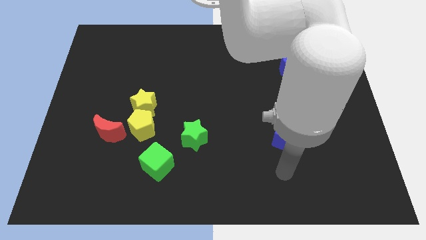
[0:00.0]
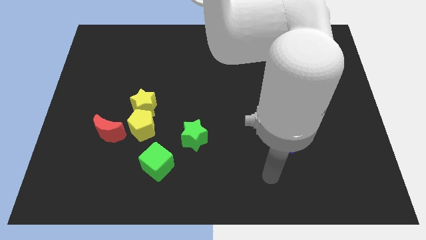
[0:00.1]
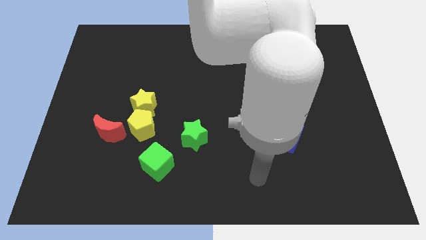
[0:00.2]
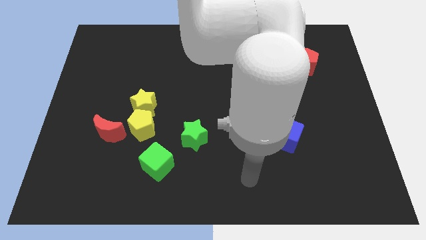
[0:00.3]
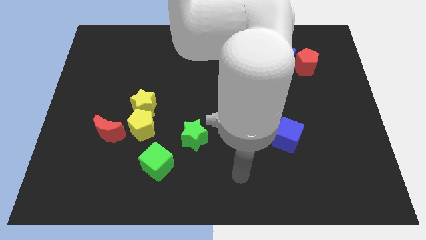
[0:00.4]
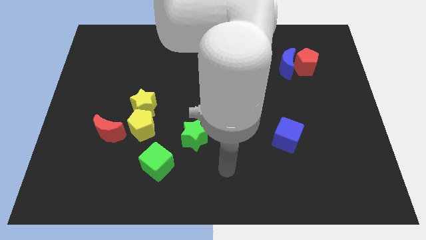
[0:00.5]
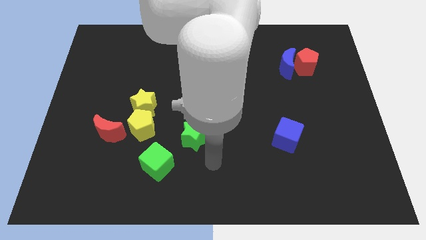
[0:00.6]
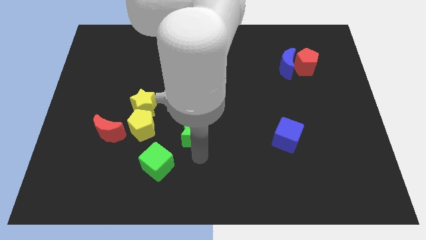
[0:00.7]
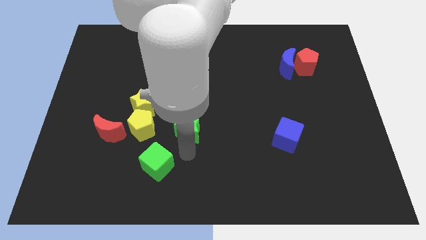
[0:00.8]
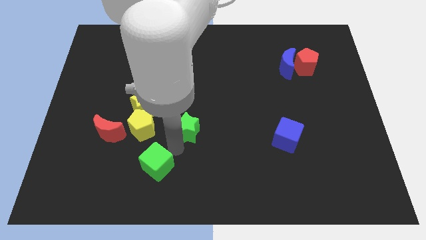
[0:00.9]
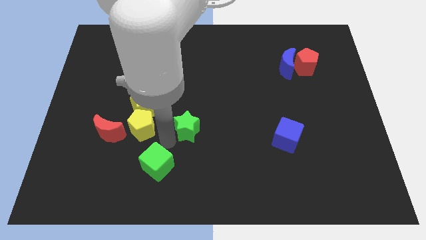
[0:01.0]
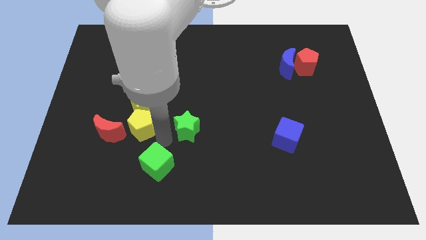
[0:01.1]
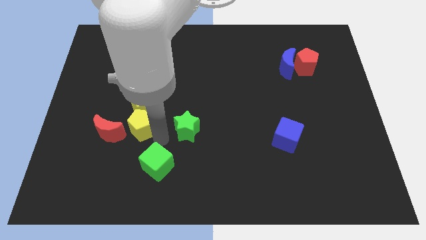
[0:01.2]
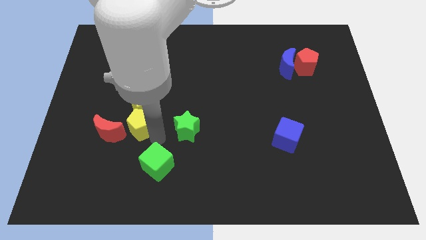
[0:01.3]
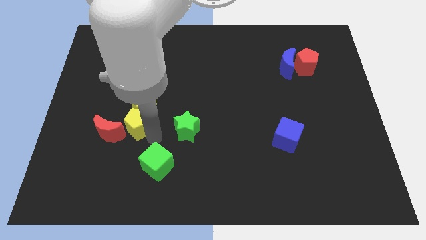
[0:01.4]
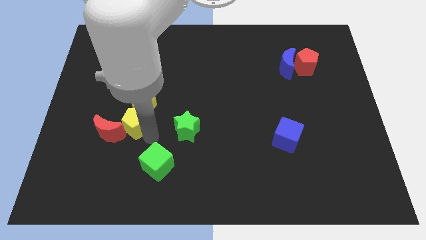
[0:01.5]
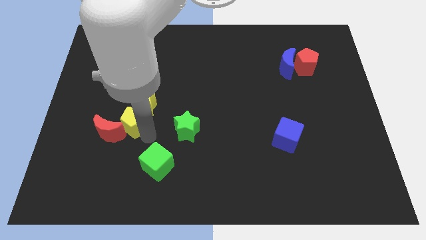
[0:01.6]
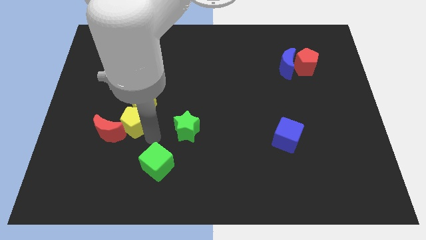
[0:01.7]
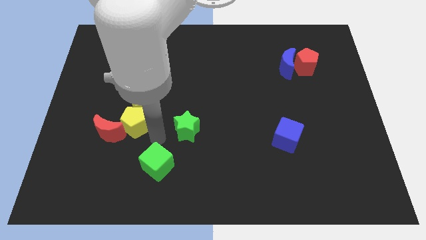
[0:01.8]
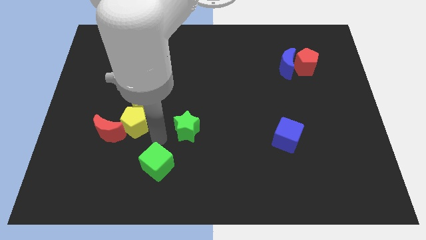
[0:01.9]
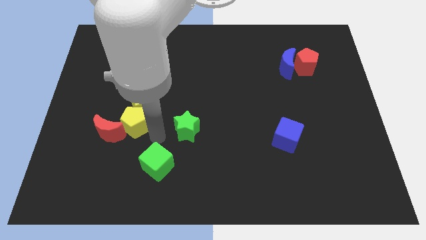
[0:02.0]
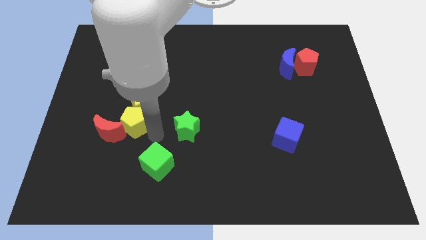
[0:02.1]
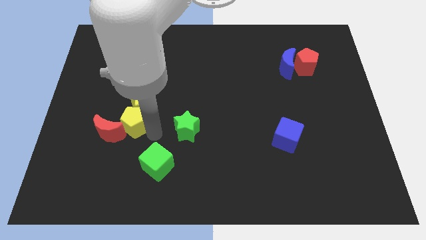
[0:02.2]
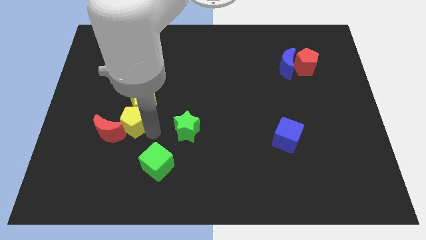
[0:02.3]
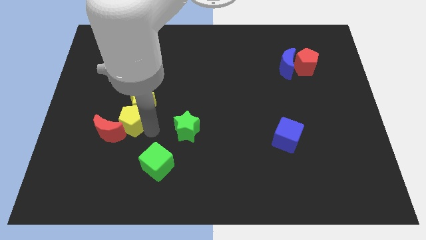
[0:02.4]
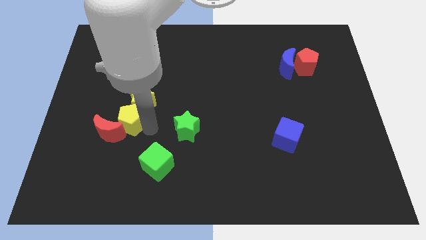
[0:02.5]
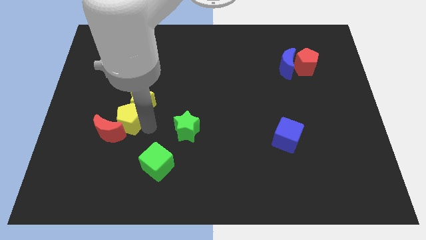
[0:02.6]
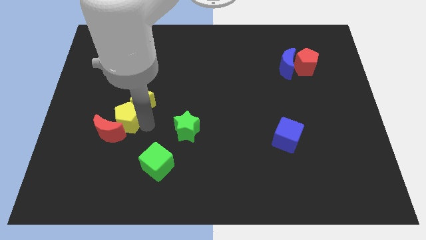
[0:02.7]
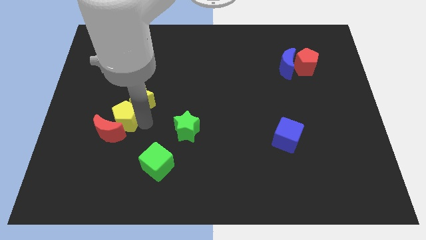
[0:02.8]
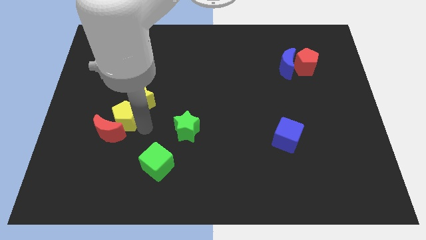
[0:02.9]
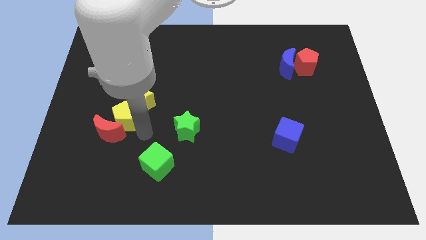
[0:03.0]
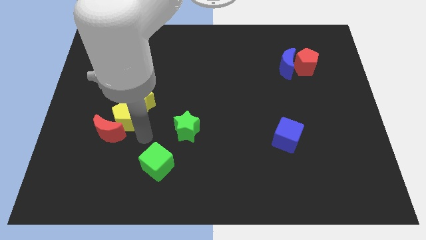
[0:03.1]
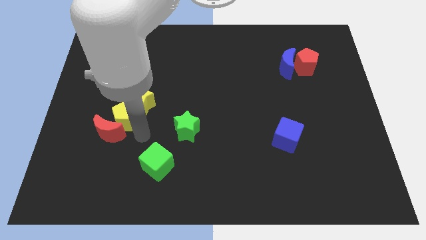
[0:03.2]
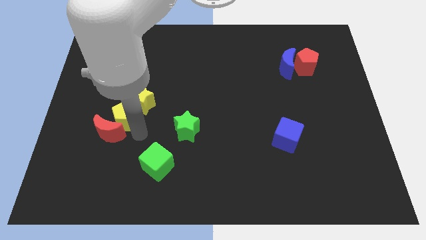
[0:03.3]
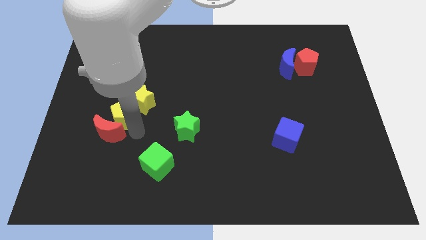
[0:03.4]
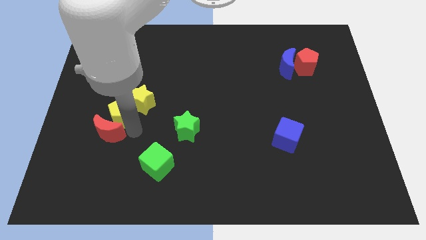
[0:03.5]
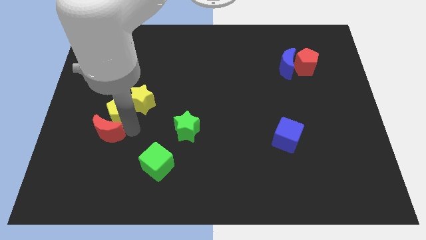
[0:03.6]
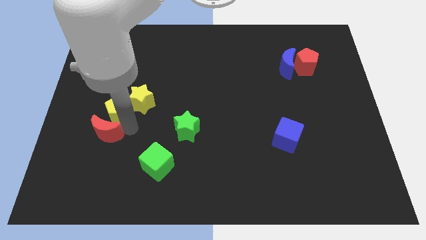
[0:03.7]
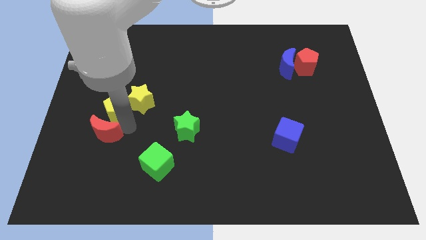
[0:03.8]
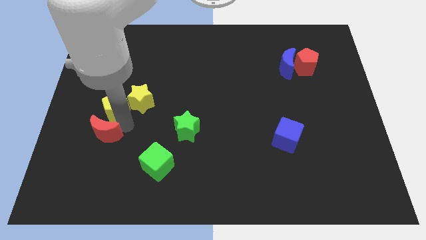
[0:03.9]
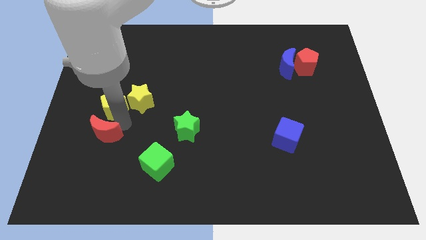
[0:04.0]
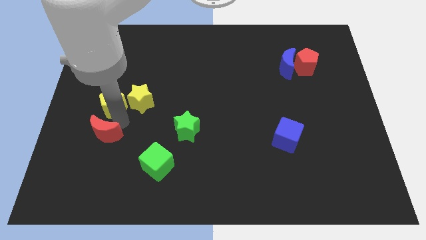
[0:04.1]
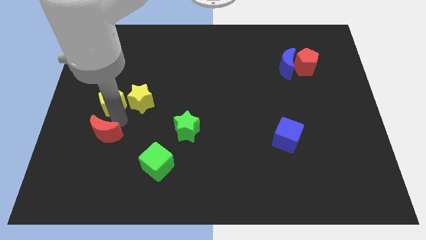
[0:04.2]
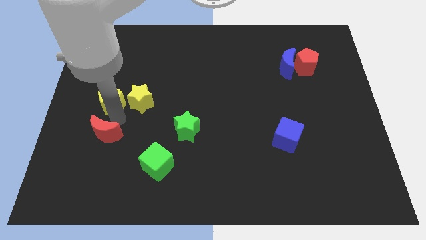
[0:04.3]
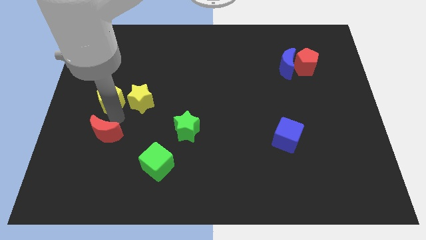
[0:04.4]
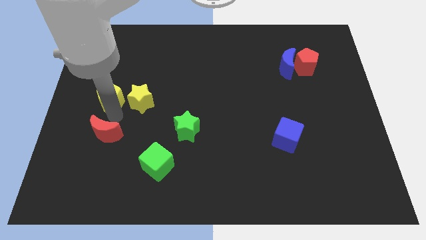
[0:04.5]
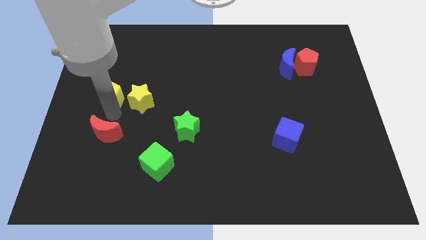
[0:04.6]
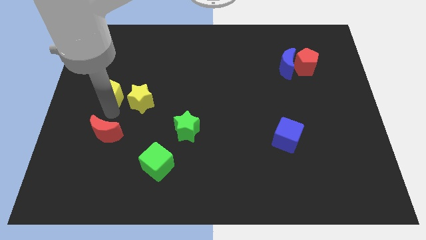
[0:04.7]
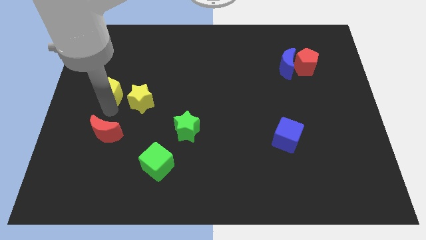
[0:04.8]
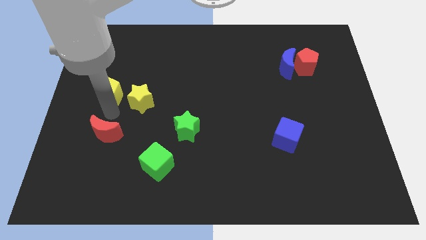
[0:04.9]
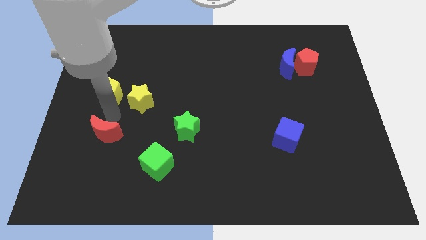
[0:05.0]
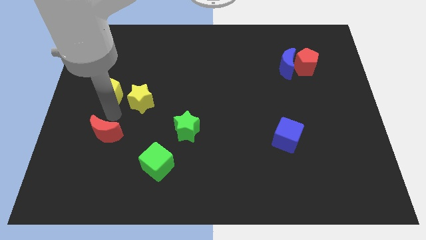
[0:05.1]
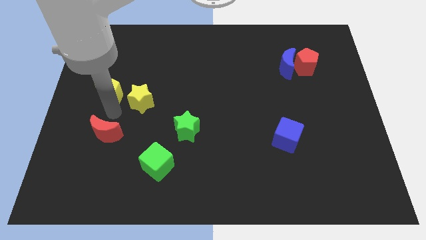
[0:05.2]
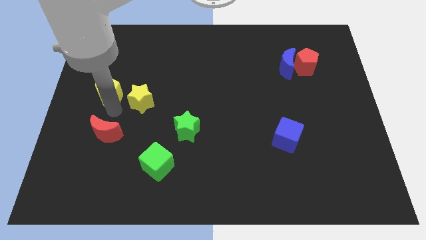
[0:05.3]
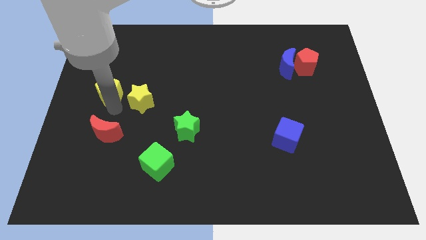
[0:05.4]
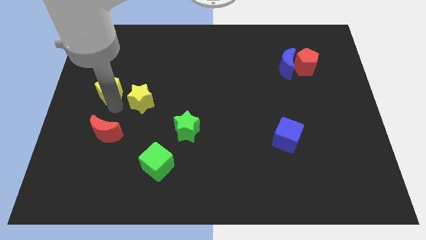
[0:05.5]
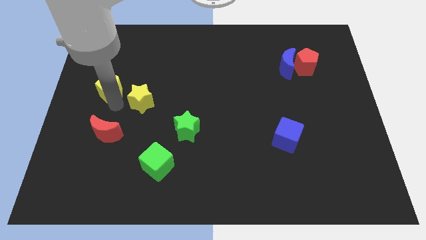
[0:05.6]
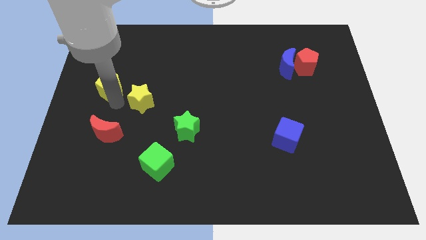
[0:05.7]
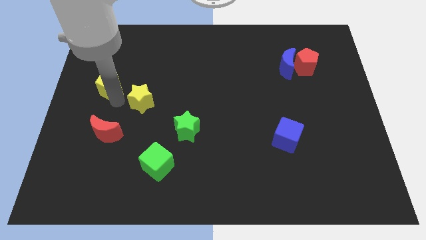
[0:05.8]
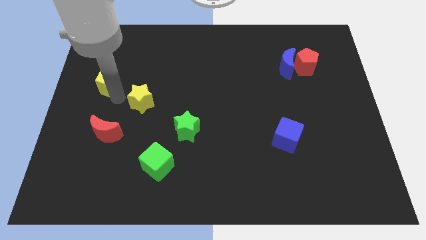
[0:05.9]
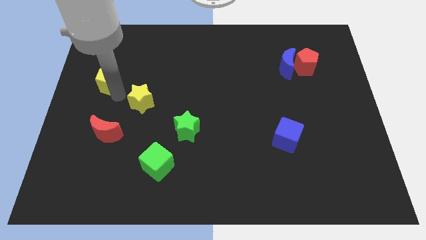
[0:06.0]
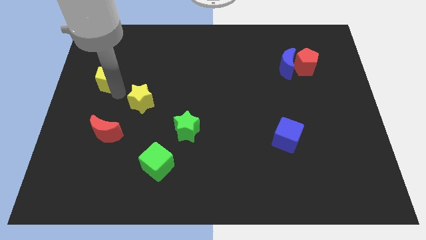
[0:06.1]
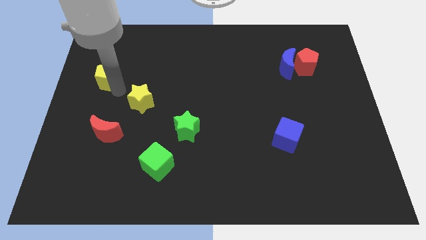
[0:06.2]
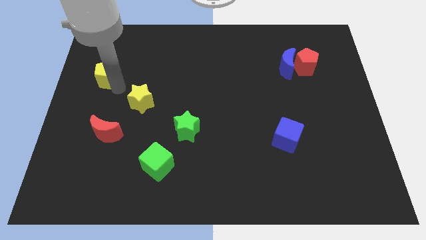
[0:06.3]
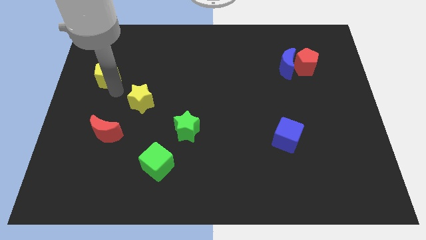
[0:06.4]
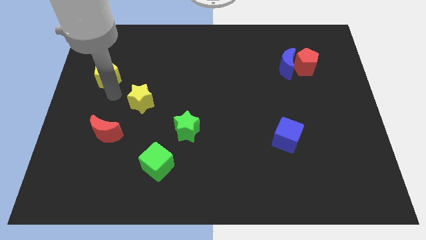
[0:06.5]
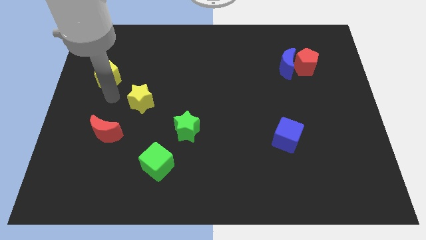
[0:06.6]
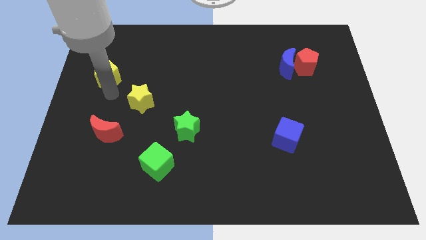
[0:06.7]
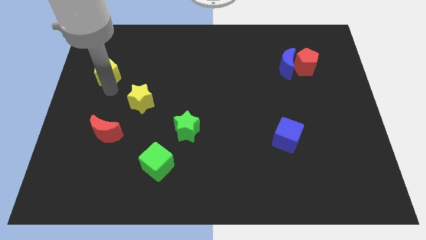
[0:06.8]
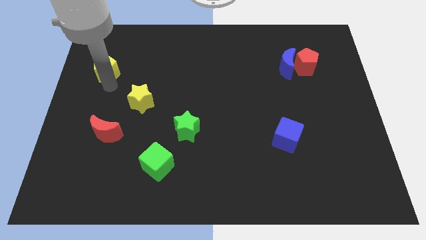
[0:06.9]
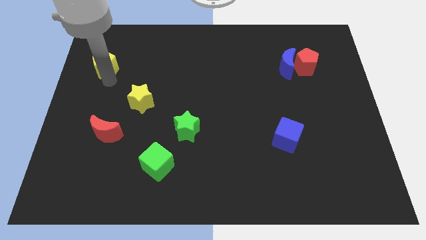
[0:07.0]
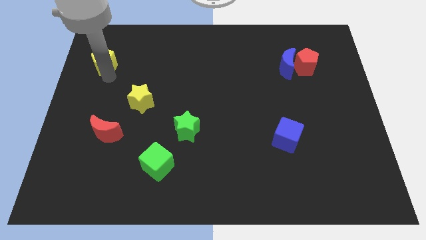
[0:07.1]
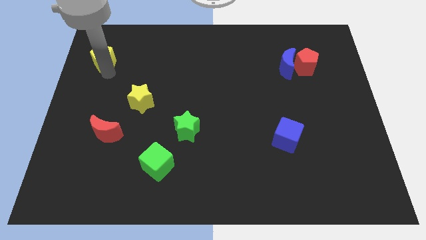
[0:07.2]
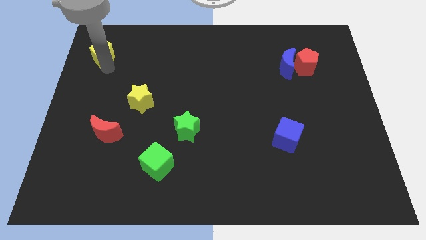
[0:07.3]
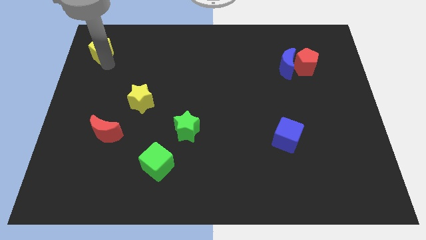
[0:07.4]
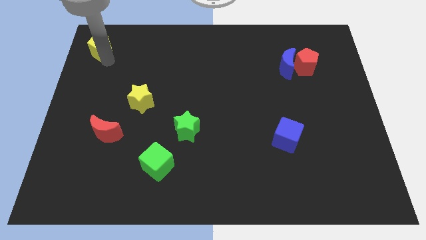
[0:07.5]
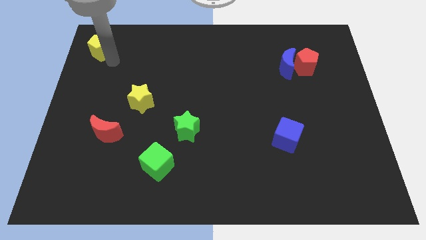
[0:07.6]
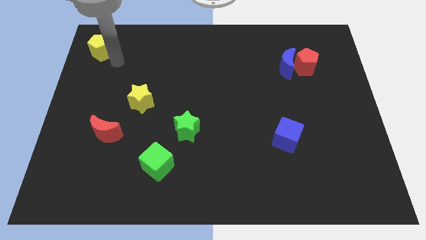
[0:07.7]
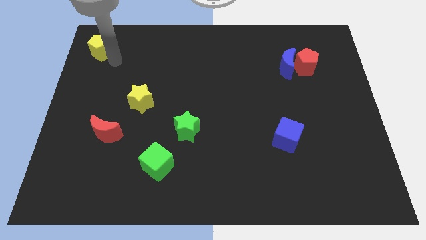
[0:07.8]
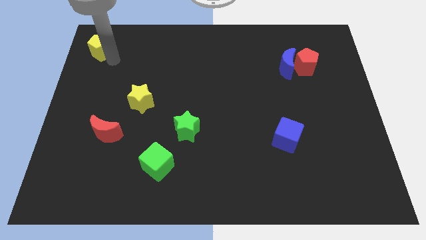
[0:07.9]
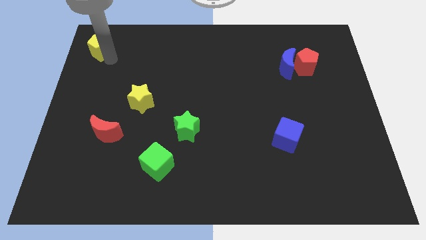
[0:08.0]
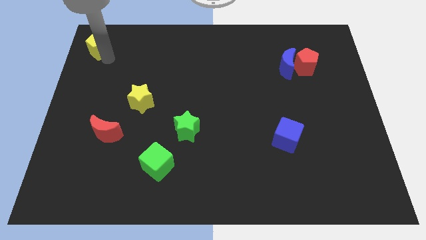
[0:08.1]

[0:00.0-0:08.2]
put the yellow pentagon to the top left
